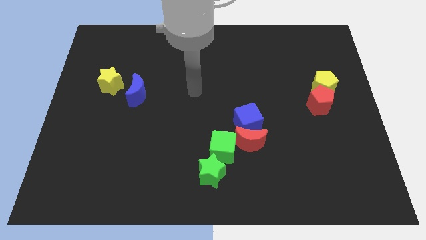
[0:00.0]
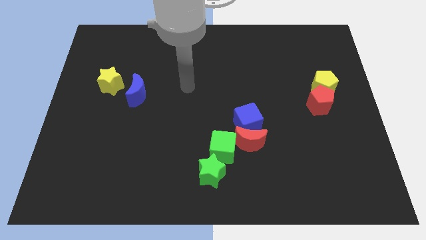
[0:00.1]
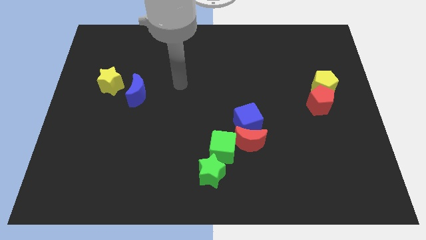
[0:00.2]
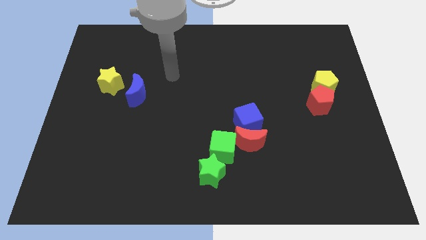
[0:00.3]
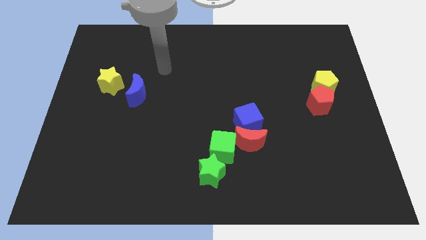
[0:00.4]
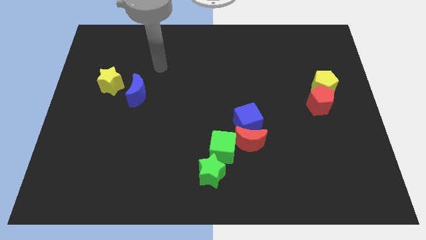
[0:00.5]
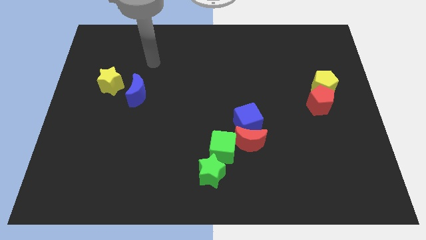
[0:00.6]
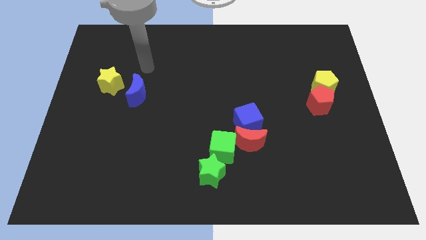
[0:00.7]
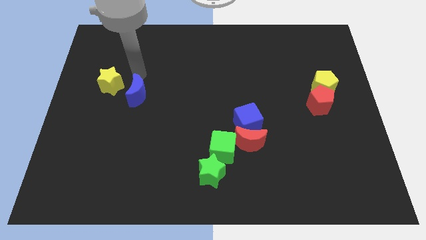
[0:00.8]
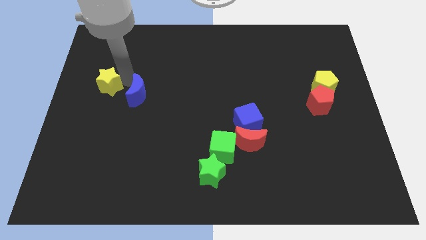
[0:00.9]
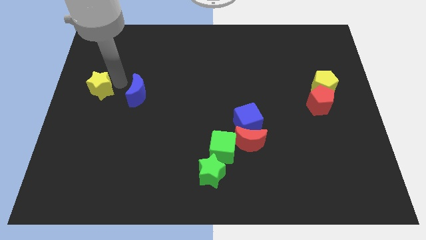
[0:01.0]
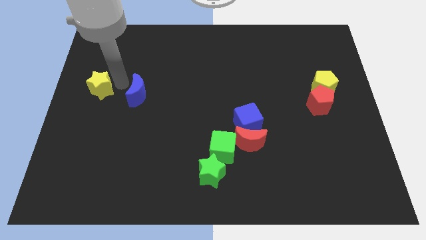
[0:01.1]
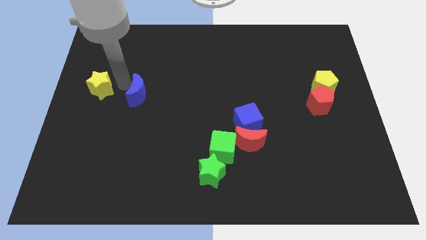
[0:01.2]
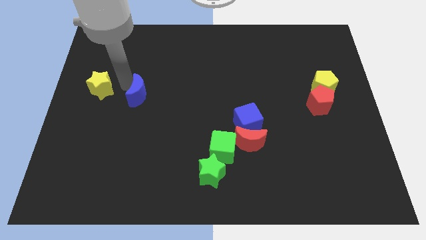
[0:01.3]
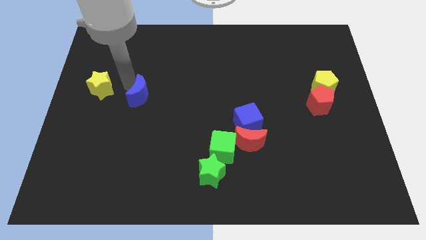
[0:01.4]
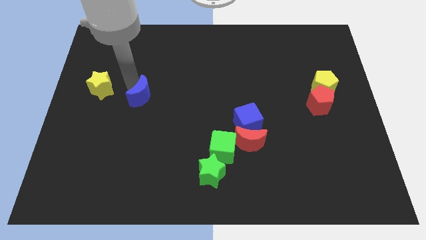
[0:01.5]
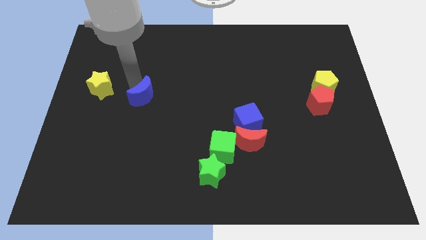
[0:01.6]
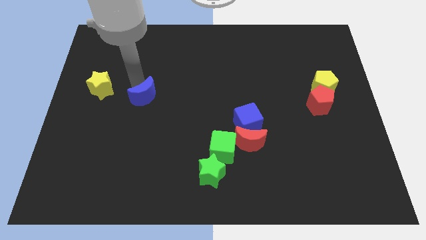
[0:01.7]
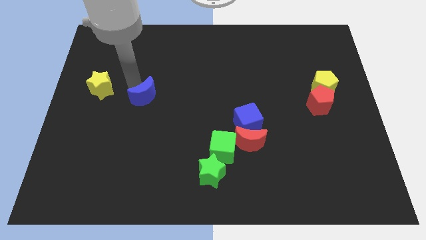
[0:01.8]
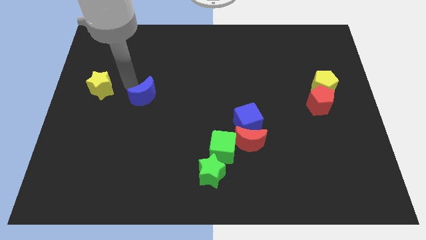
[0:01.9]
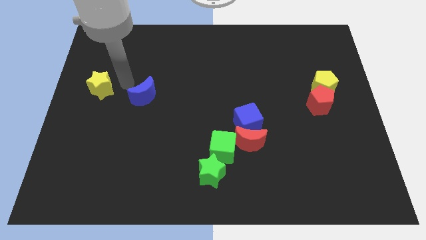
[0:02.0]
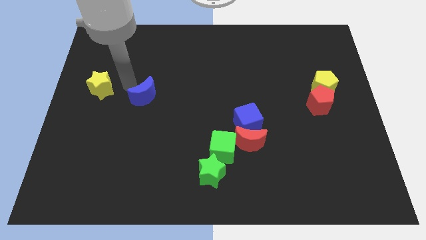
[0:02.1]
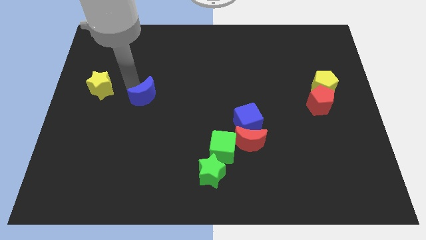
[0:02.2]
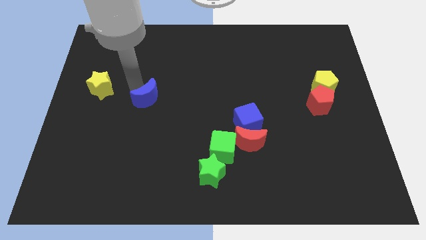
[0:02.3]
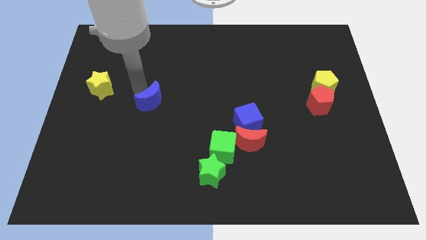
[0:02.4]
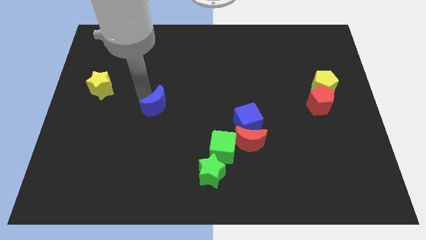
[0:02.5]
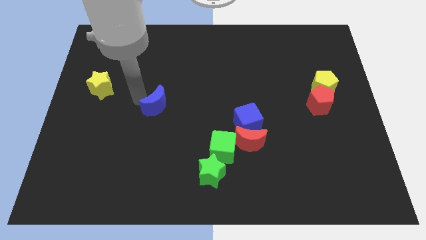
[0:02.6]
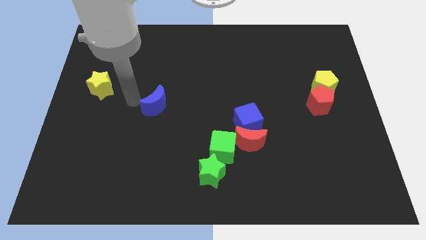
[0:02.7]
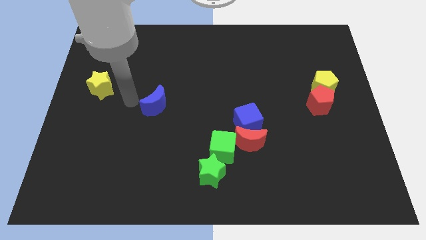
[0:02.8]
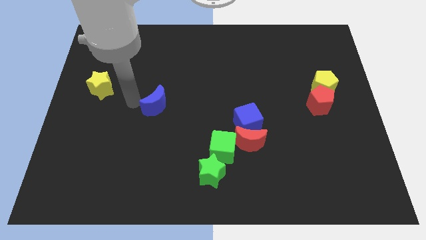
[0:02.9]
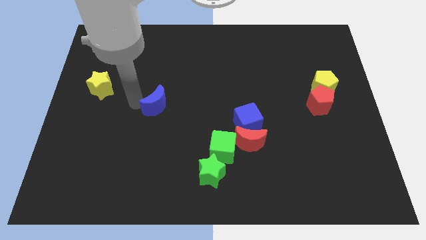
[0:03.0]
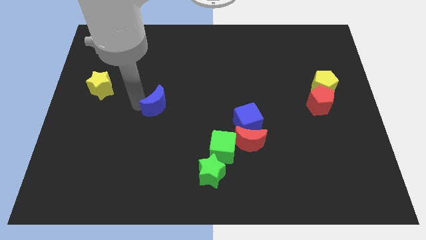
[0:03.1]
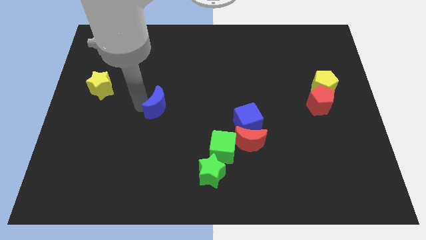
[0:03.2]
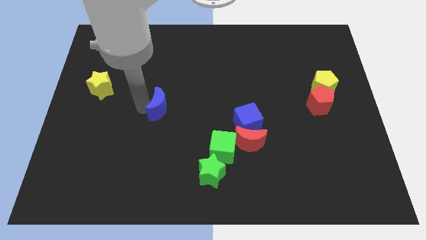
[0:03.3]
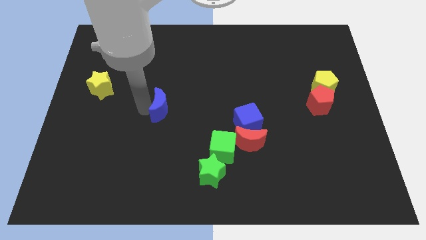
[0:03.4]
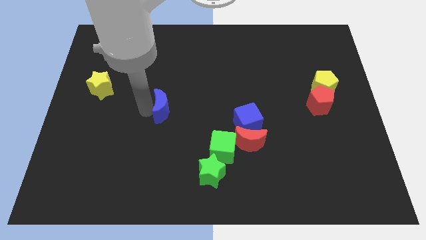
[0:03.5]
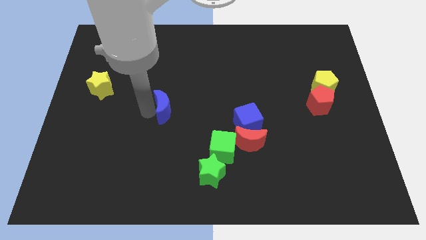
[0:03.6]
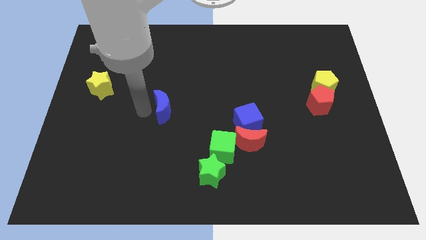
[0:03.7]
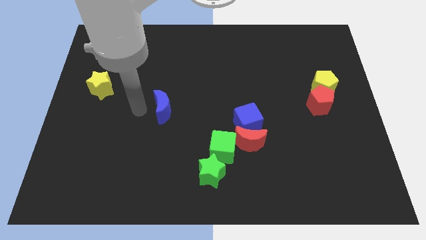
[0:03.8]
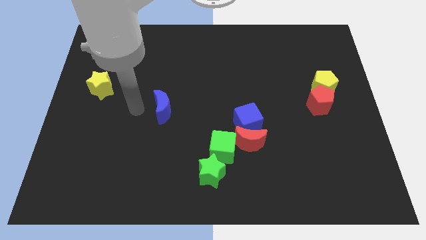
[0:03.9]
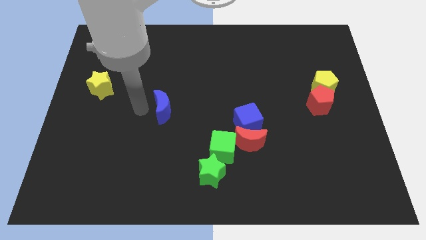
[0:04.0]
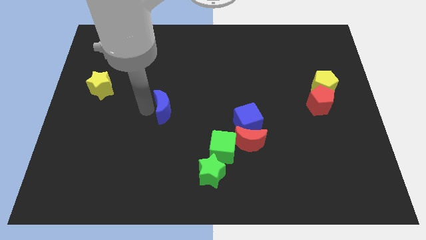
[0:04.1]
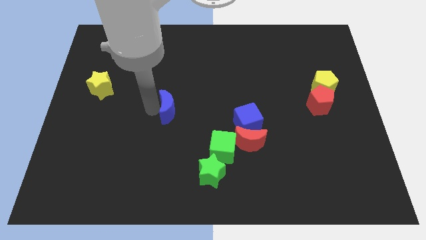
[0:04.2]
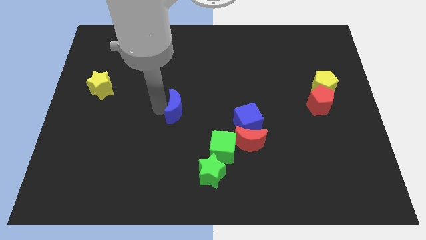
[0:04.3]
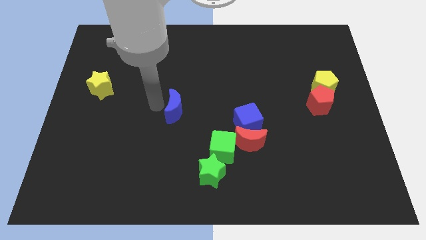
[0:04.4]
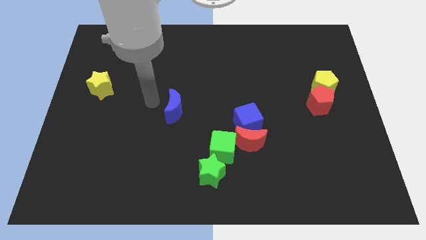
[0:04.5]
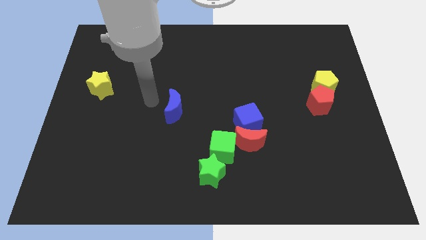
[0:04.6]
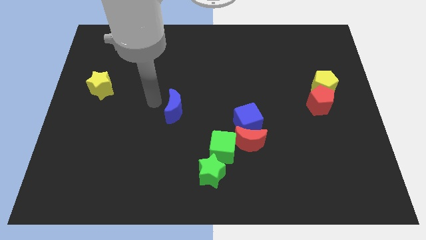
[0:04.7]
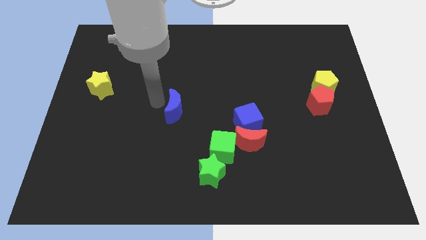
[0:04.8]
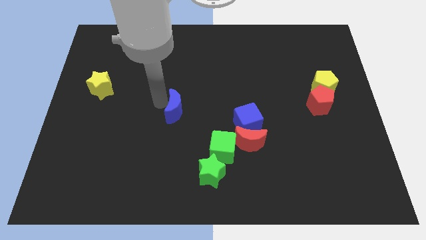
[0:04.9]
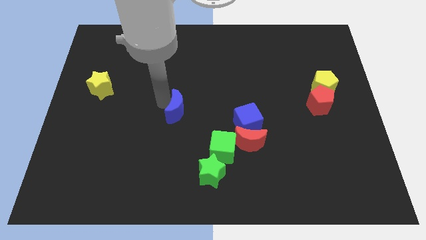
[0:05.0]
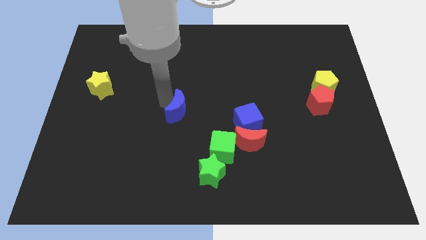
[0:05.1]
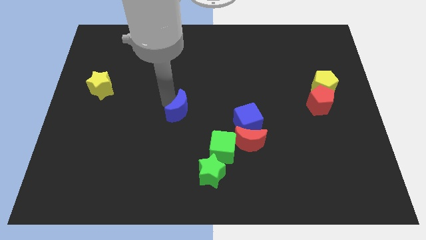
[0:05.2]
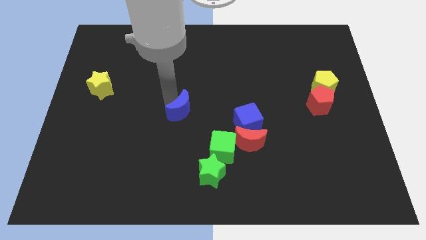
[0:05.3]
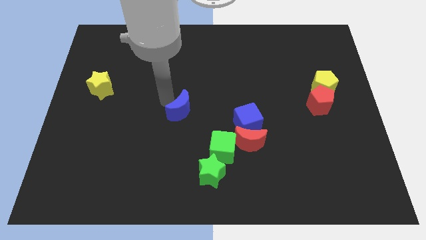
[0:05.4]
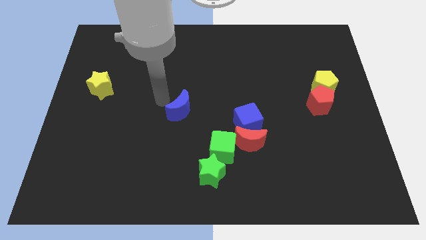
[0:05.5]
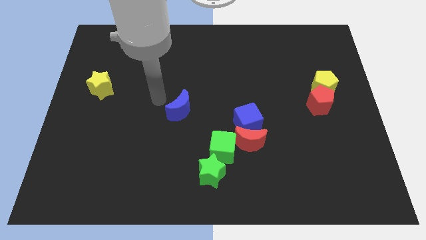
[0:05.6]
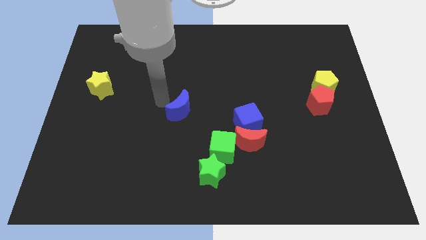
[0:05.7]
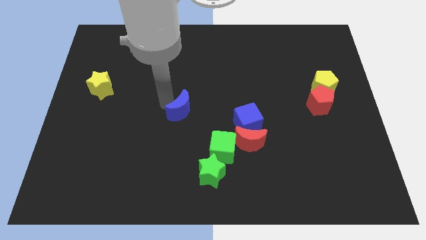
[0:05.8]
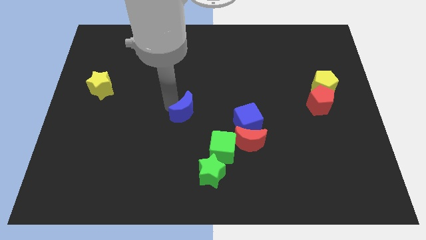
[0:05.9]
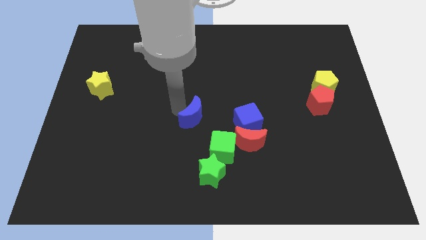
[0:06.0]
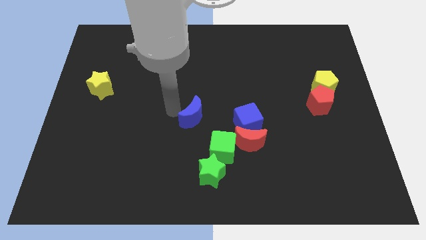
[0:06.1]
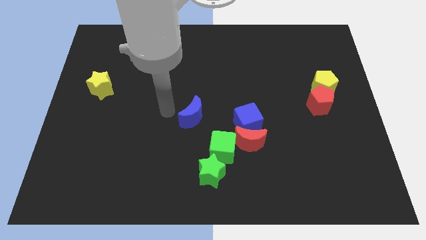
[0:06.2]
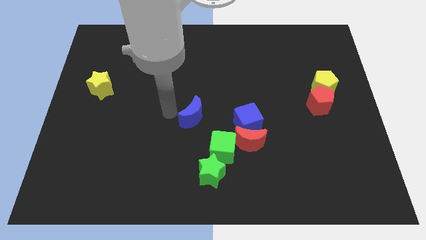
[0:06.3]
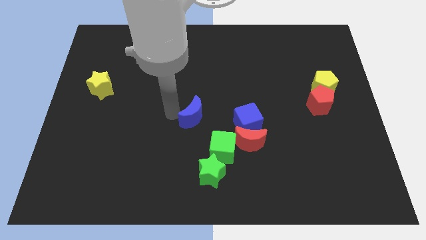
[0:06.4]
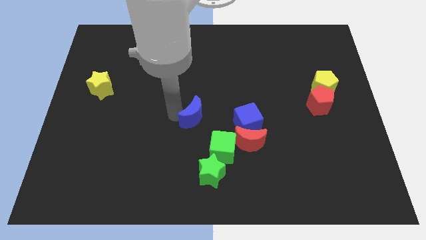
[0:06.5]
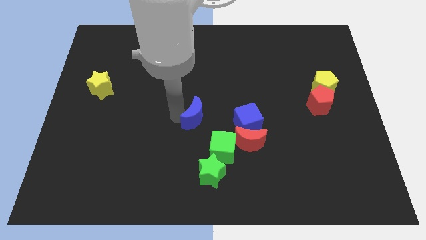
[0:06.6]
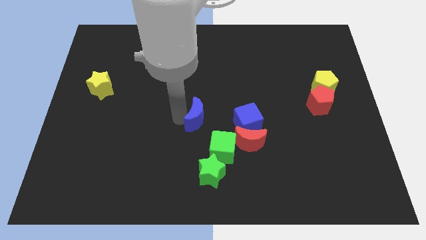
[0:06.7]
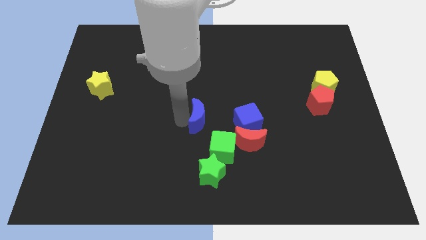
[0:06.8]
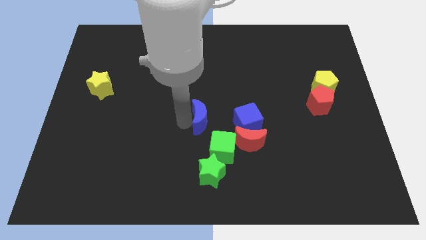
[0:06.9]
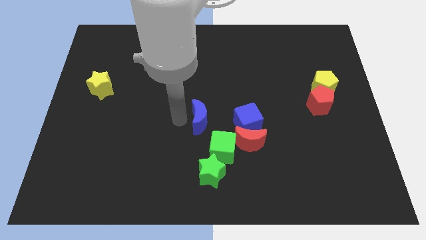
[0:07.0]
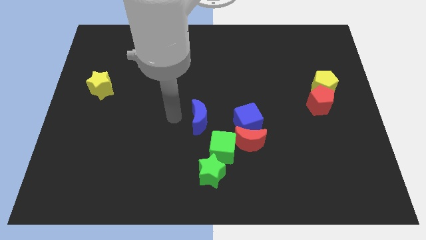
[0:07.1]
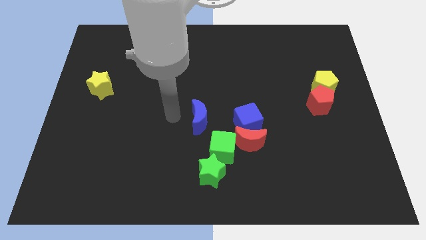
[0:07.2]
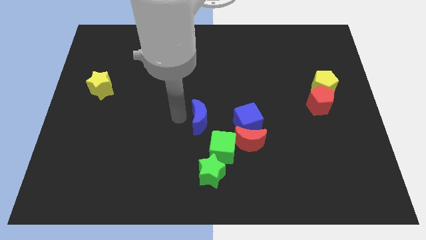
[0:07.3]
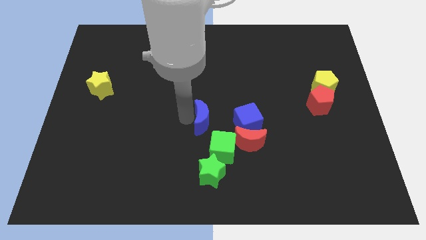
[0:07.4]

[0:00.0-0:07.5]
push the blue moon to the top left of the red moon
